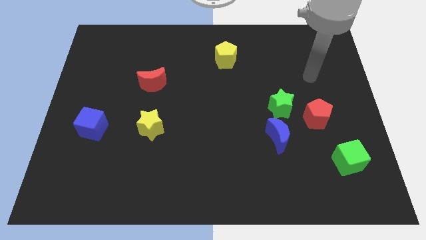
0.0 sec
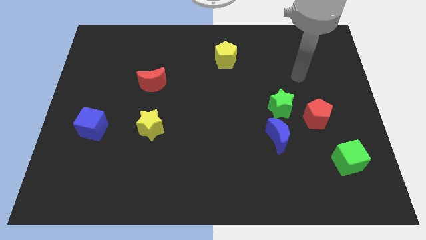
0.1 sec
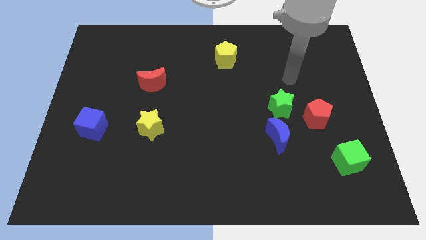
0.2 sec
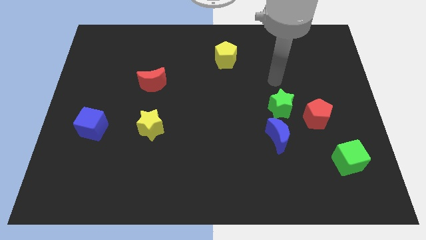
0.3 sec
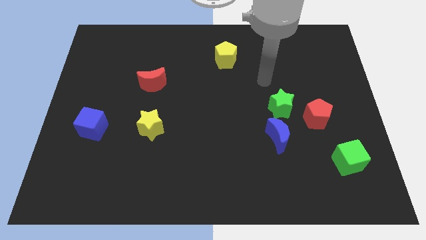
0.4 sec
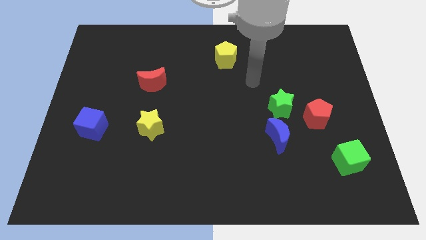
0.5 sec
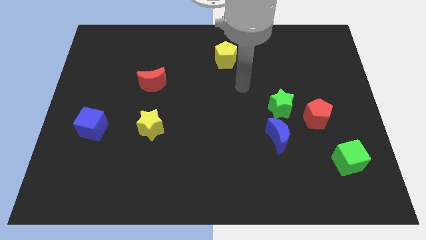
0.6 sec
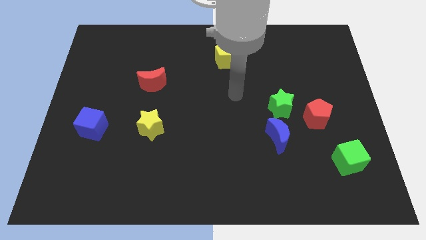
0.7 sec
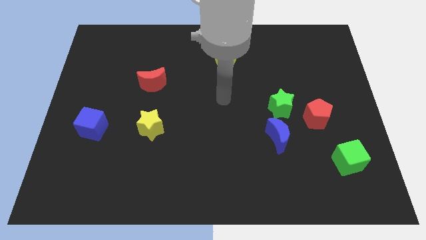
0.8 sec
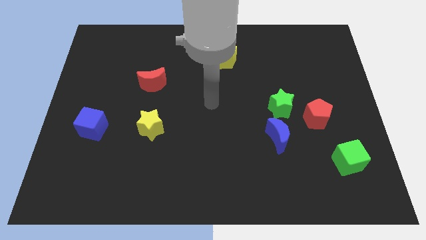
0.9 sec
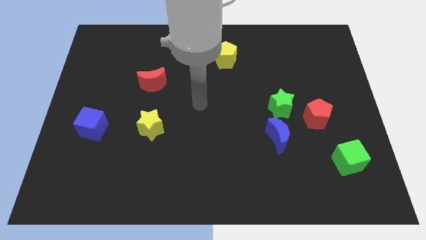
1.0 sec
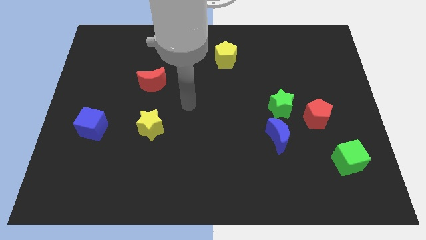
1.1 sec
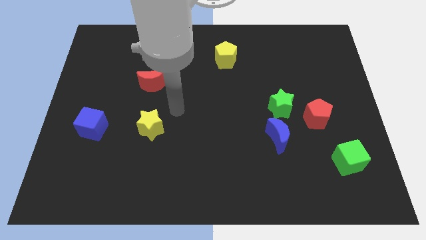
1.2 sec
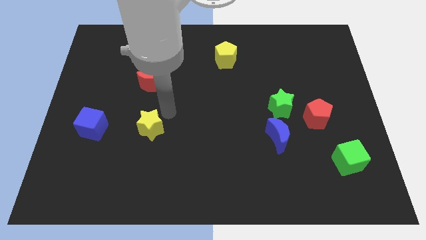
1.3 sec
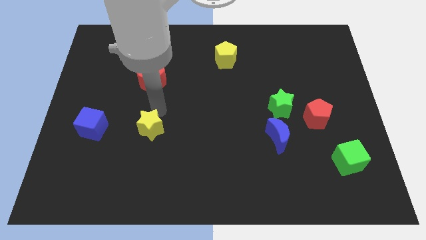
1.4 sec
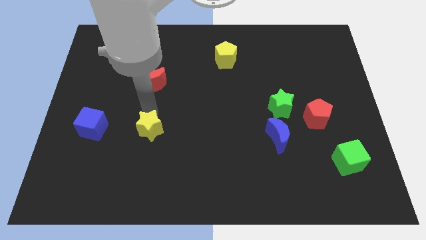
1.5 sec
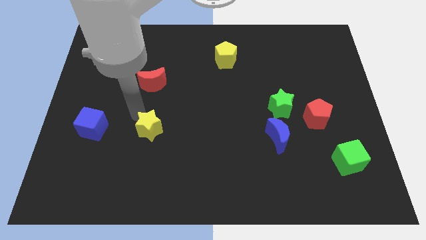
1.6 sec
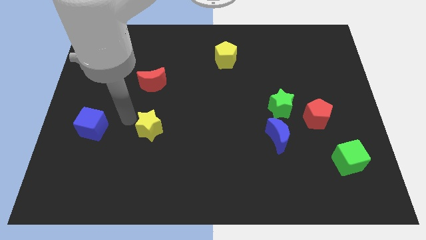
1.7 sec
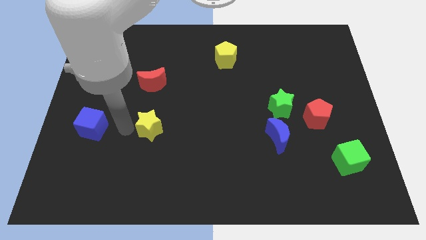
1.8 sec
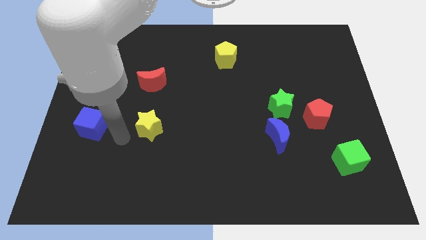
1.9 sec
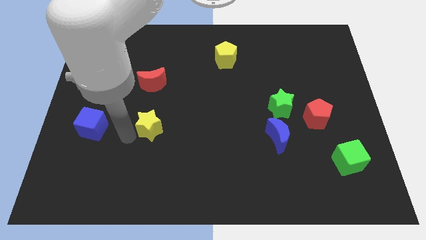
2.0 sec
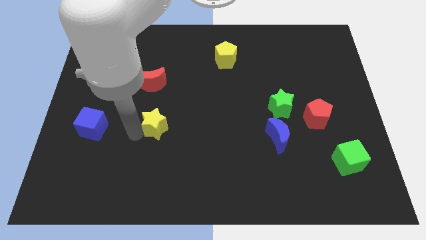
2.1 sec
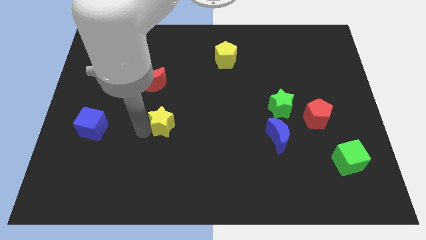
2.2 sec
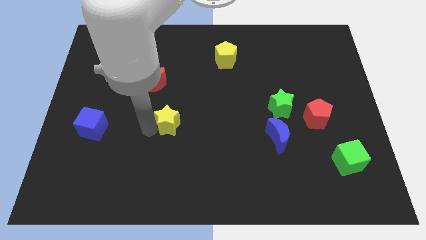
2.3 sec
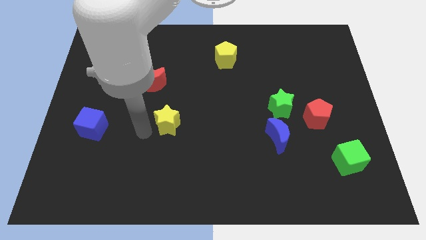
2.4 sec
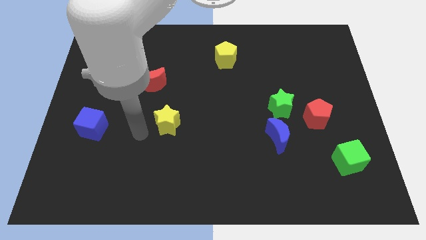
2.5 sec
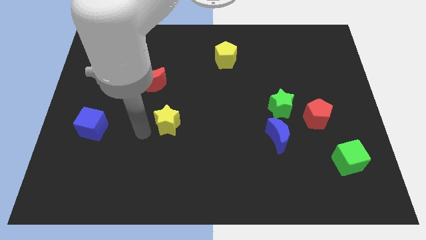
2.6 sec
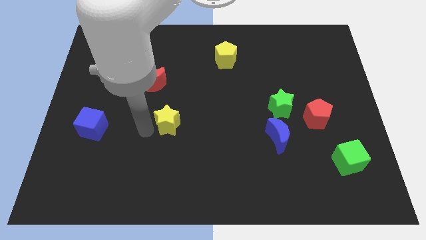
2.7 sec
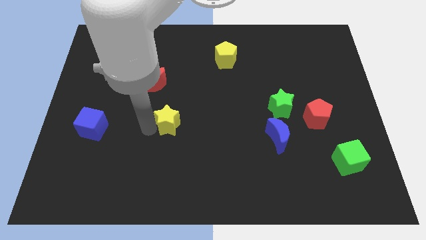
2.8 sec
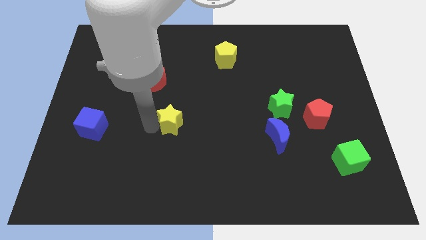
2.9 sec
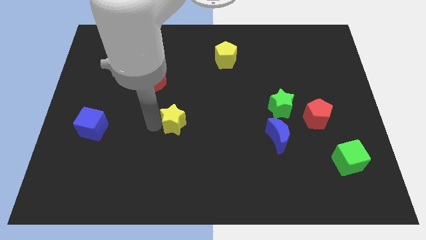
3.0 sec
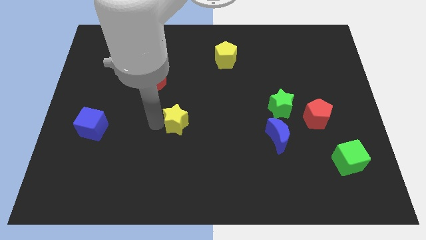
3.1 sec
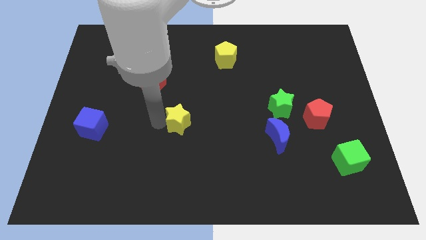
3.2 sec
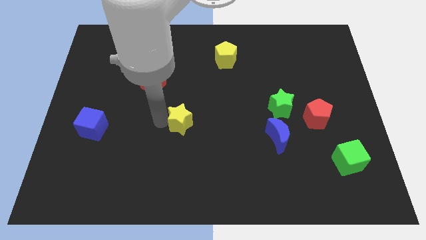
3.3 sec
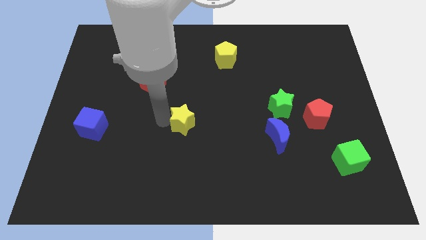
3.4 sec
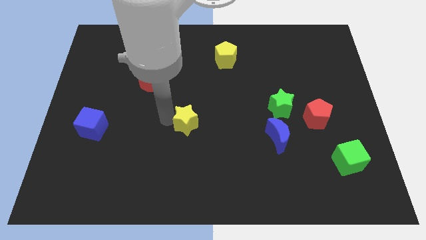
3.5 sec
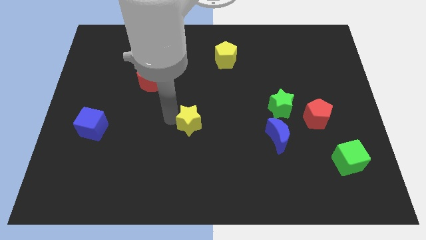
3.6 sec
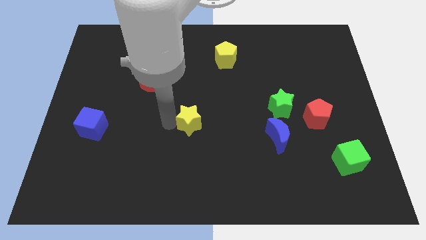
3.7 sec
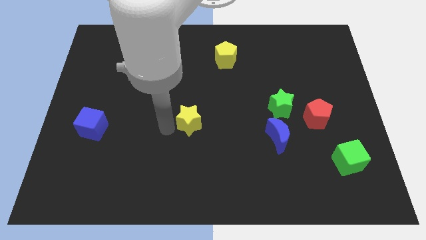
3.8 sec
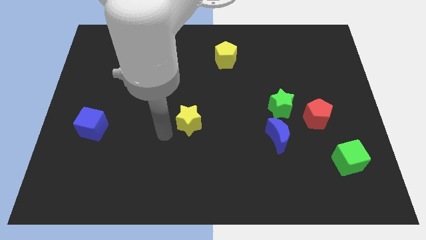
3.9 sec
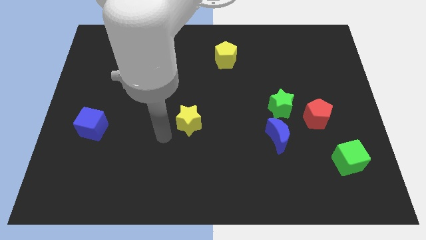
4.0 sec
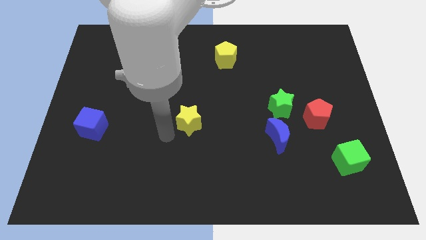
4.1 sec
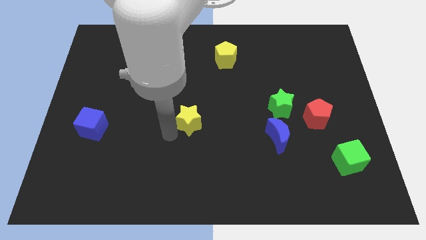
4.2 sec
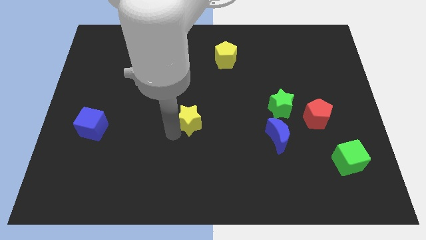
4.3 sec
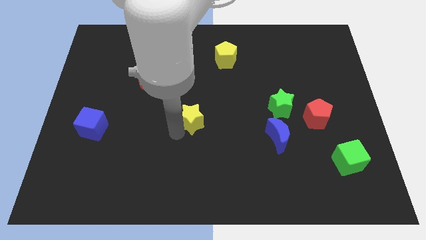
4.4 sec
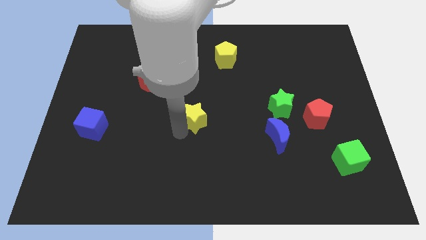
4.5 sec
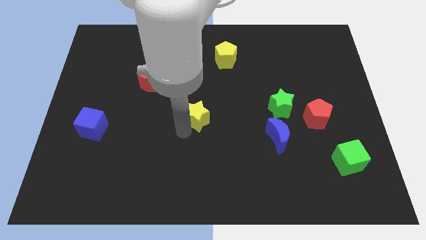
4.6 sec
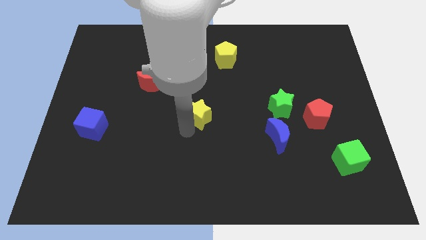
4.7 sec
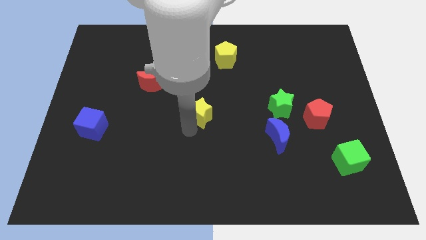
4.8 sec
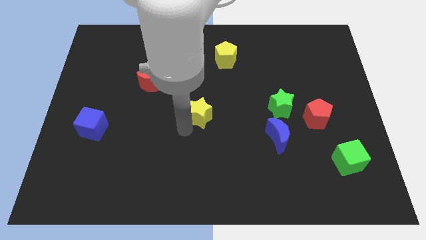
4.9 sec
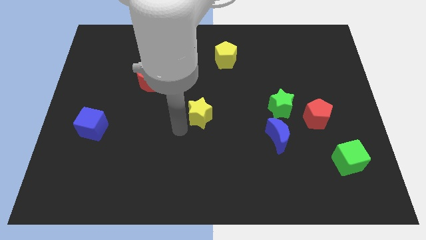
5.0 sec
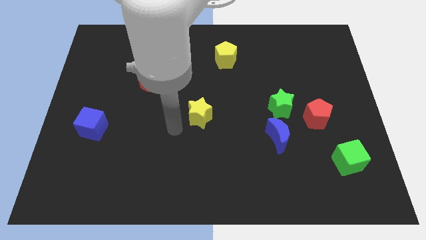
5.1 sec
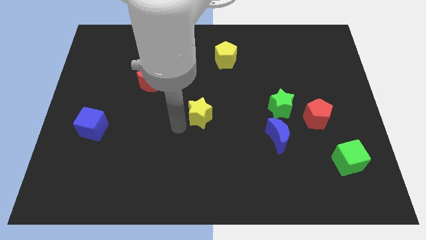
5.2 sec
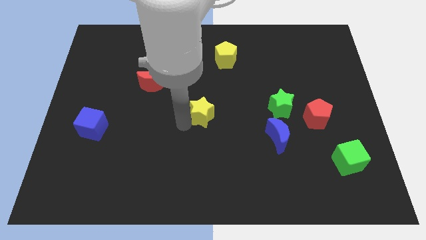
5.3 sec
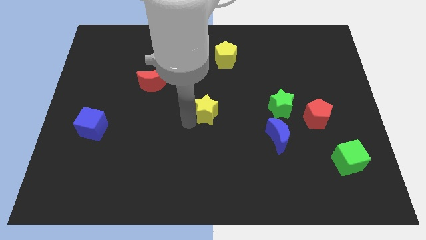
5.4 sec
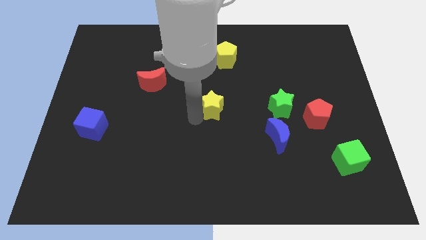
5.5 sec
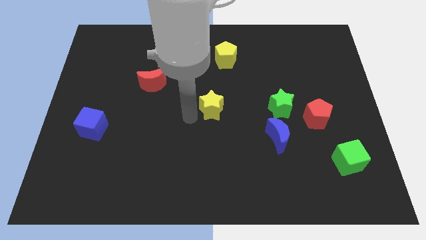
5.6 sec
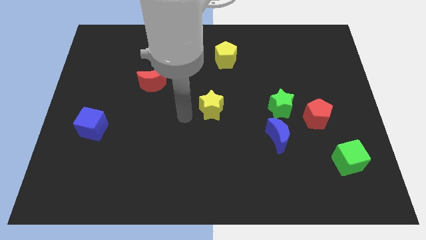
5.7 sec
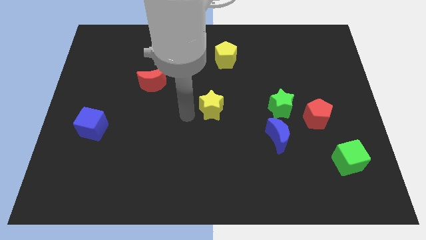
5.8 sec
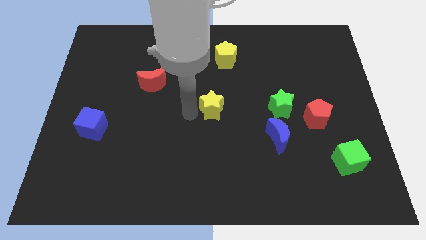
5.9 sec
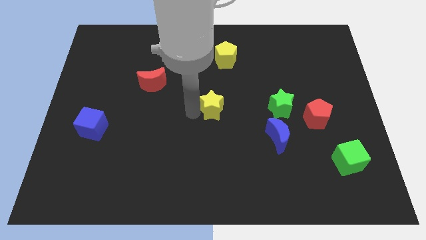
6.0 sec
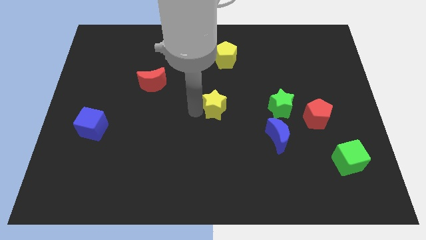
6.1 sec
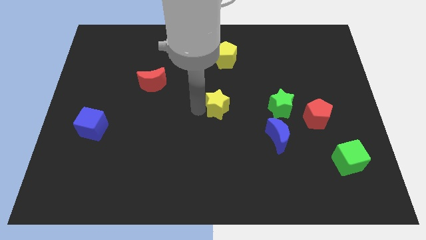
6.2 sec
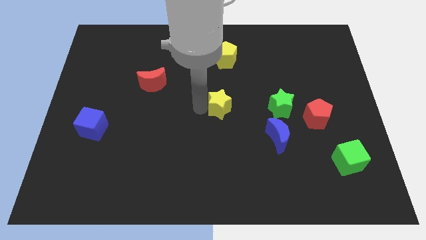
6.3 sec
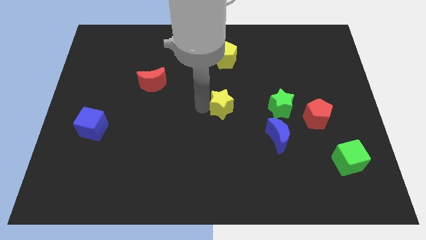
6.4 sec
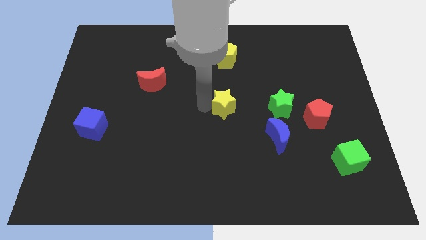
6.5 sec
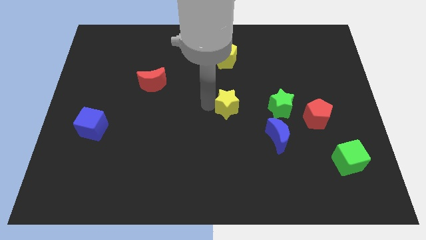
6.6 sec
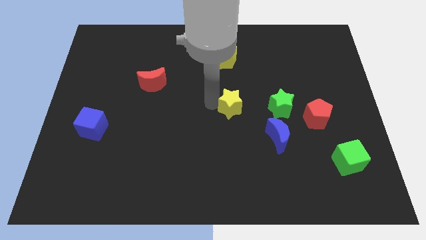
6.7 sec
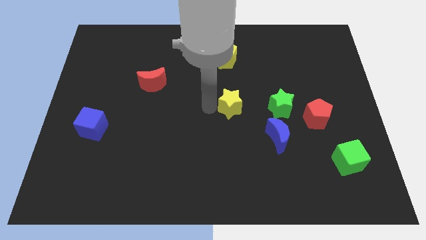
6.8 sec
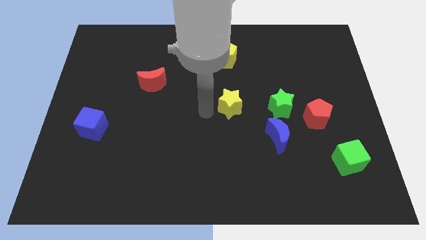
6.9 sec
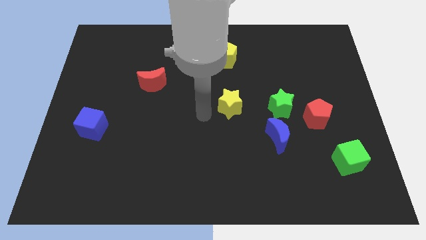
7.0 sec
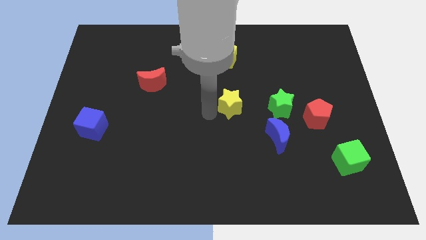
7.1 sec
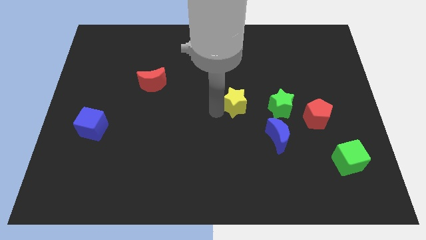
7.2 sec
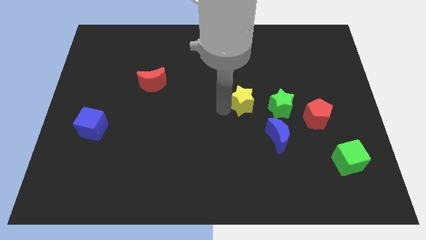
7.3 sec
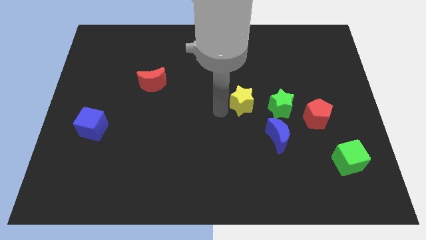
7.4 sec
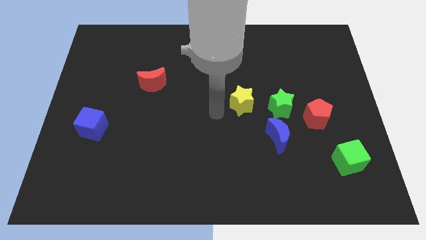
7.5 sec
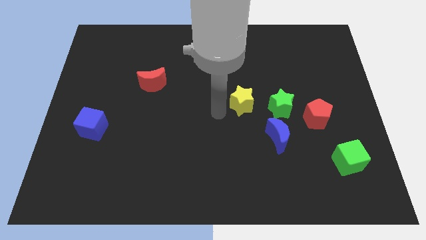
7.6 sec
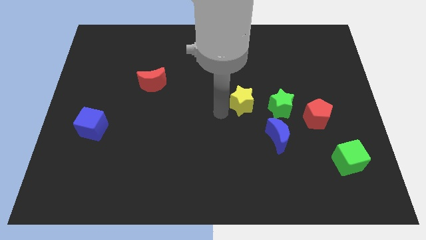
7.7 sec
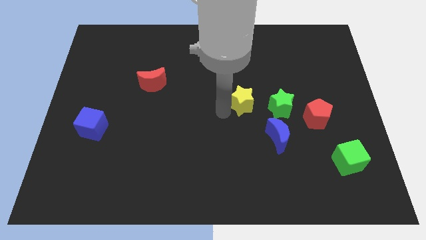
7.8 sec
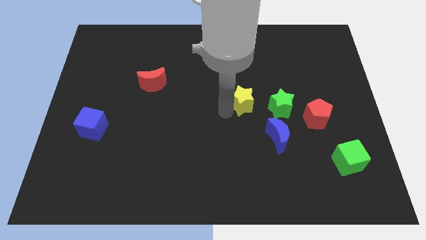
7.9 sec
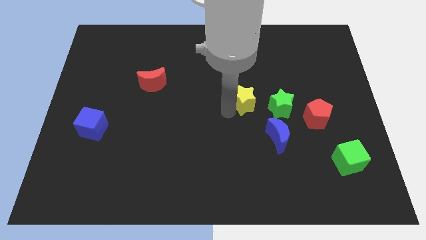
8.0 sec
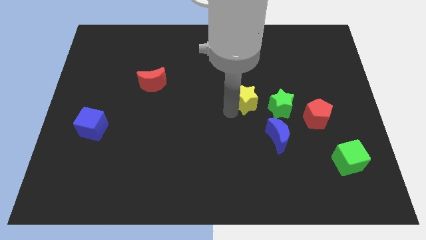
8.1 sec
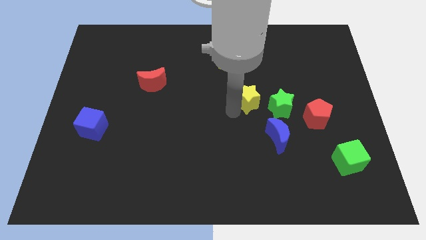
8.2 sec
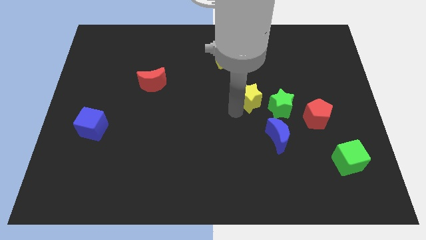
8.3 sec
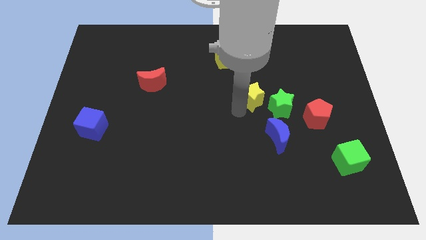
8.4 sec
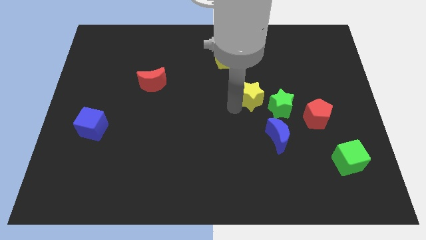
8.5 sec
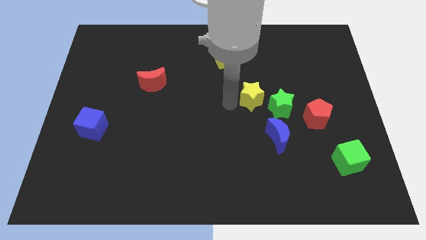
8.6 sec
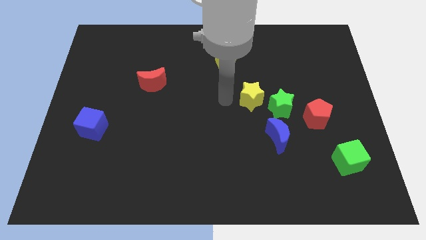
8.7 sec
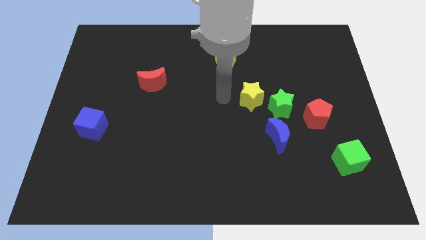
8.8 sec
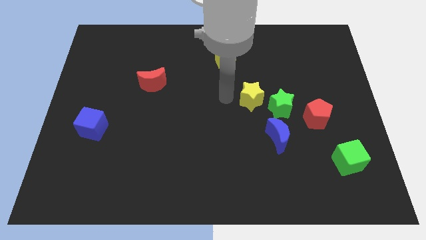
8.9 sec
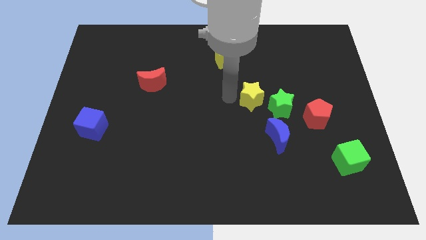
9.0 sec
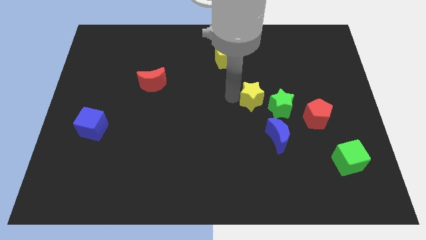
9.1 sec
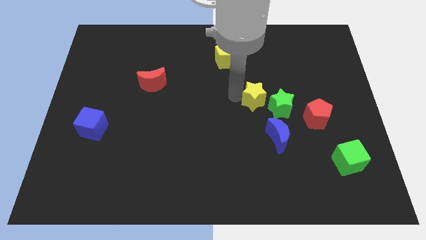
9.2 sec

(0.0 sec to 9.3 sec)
push the yellow star above the blue moon
